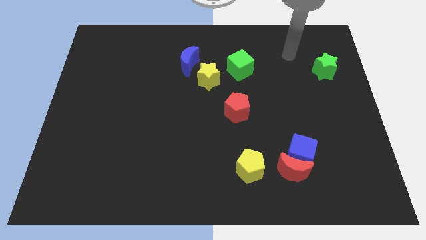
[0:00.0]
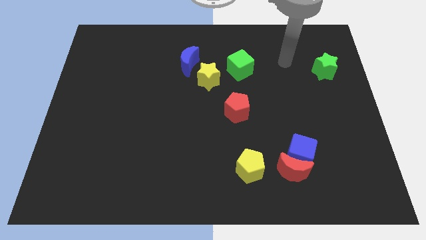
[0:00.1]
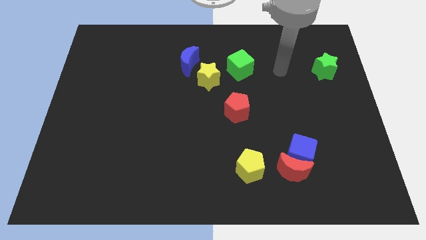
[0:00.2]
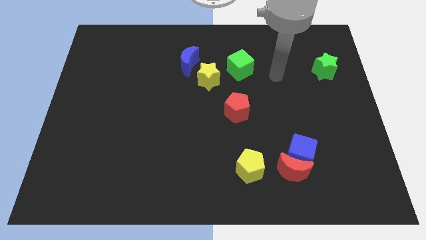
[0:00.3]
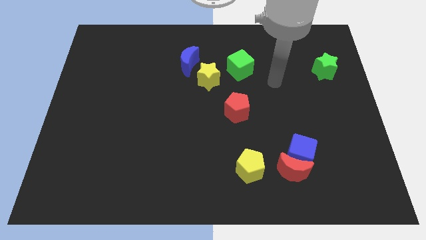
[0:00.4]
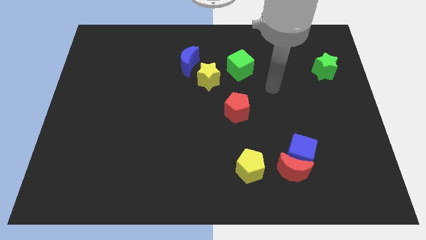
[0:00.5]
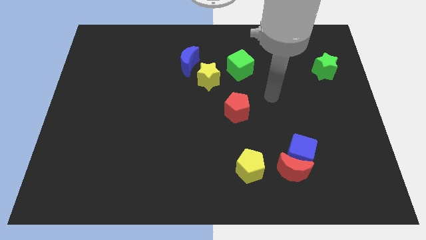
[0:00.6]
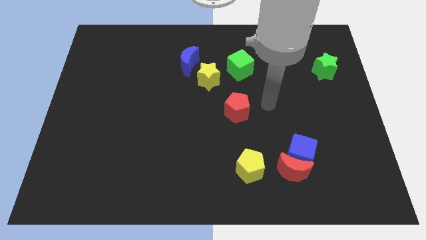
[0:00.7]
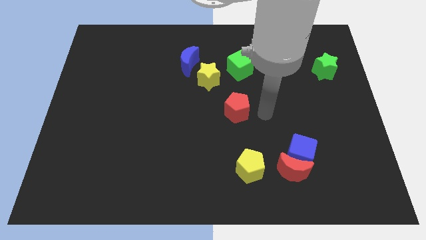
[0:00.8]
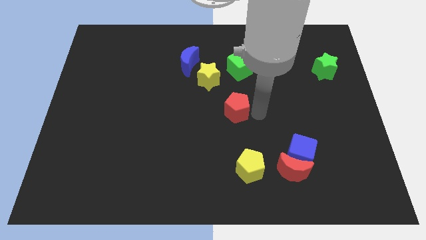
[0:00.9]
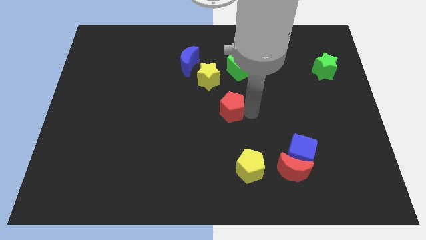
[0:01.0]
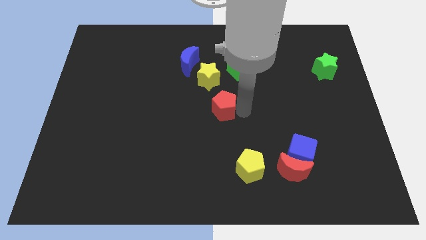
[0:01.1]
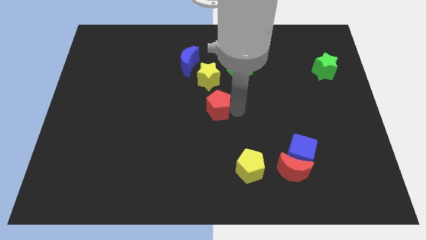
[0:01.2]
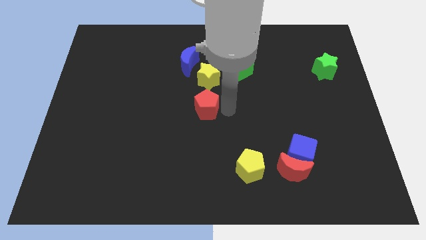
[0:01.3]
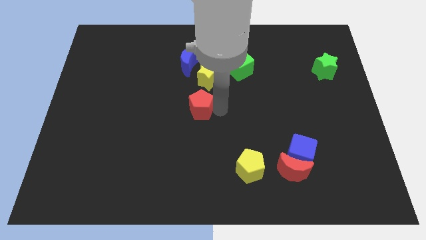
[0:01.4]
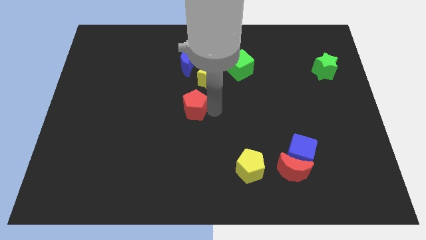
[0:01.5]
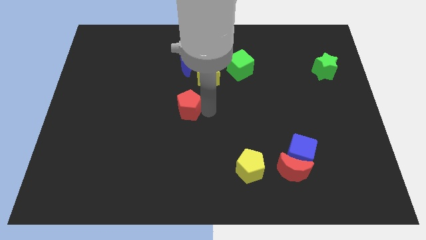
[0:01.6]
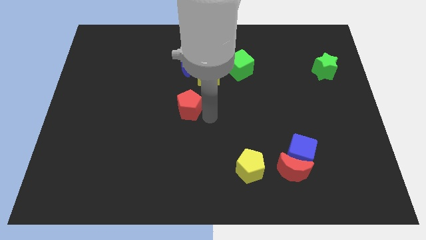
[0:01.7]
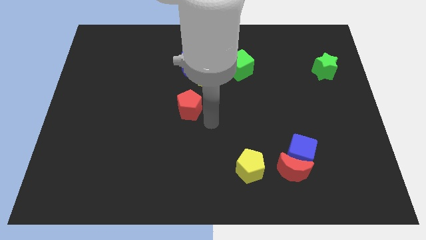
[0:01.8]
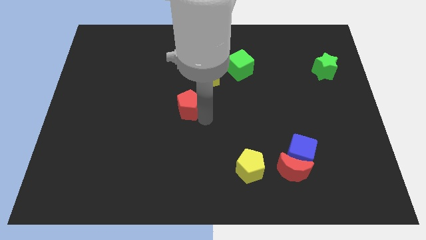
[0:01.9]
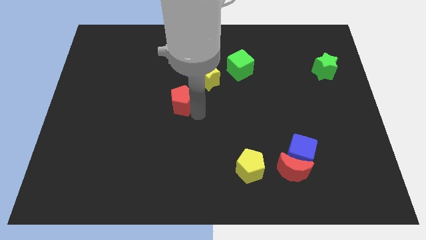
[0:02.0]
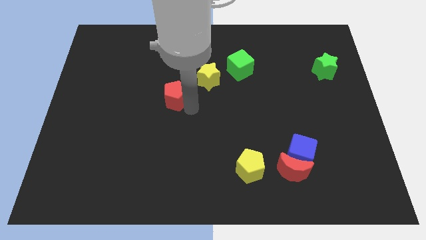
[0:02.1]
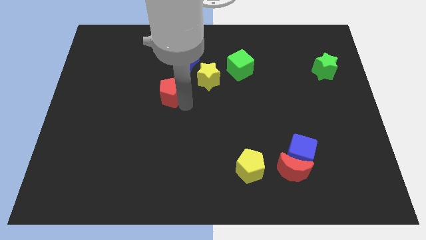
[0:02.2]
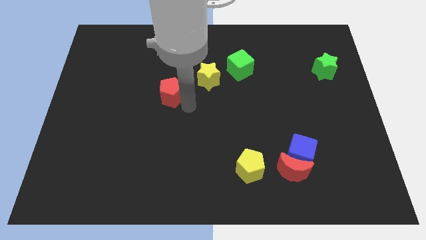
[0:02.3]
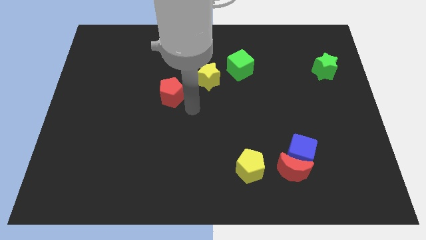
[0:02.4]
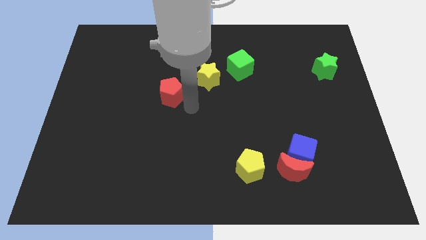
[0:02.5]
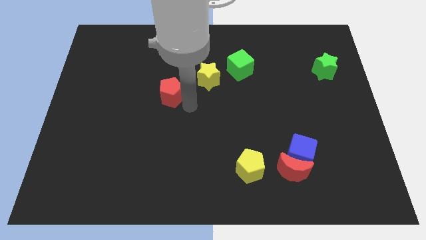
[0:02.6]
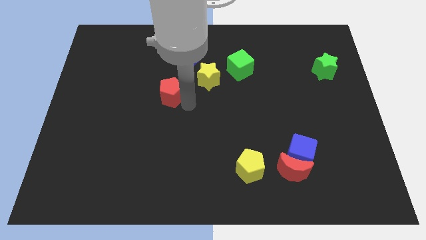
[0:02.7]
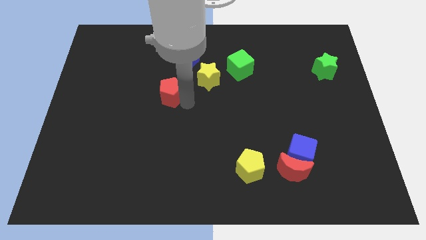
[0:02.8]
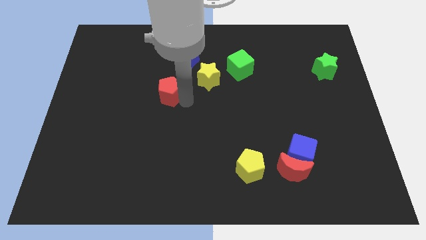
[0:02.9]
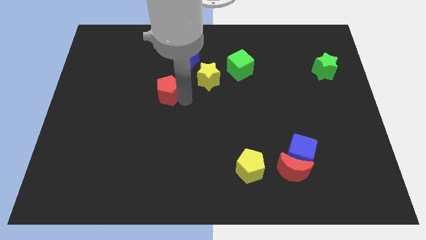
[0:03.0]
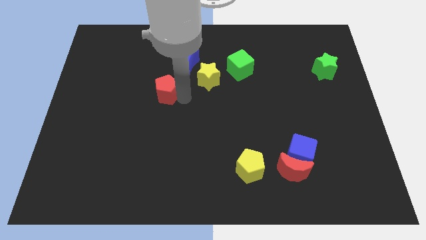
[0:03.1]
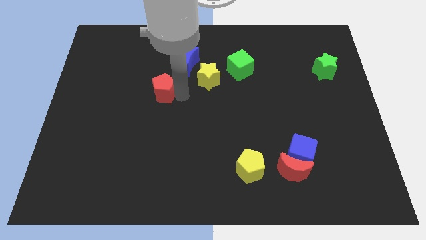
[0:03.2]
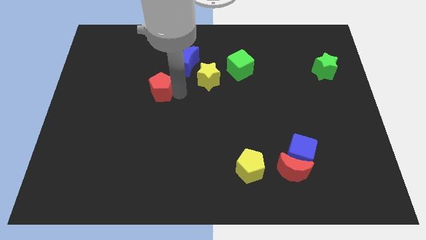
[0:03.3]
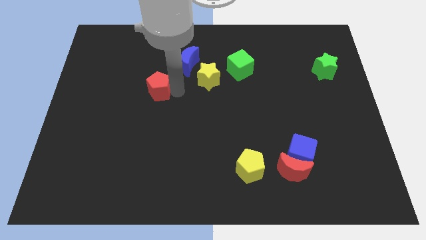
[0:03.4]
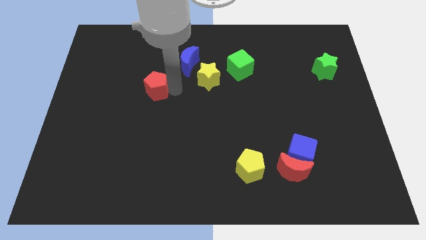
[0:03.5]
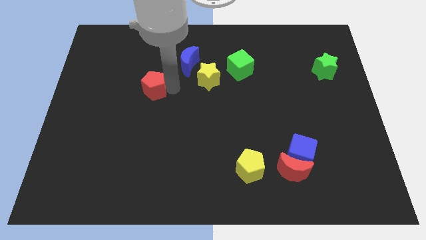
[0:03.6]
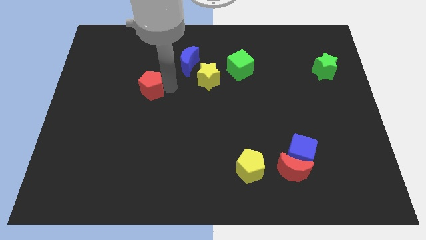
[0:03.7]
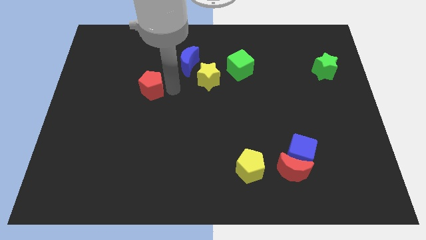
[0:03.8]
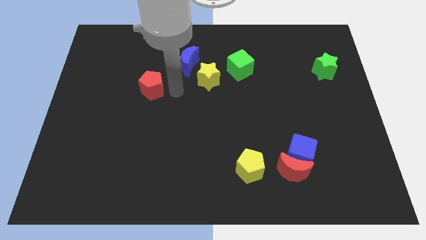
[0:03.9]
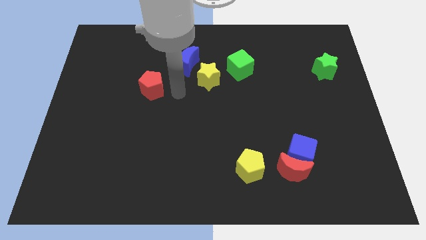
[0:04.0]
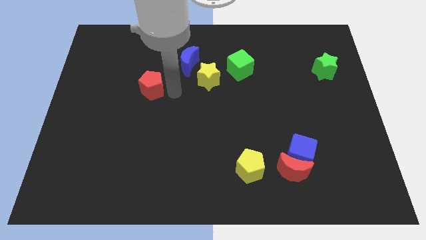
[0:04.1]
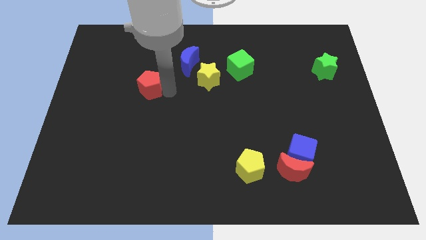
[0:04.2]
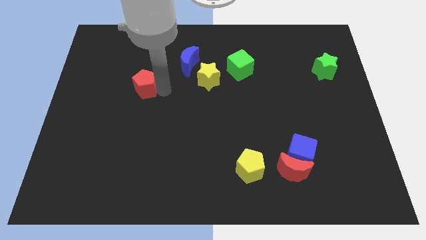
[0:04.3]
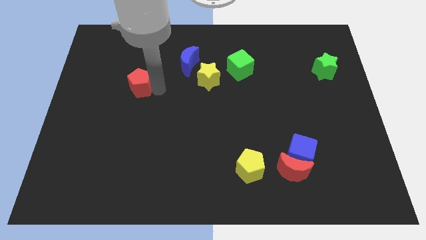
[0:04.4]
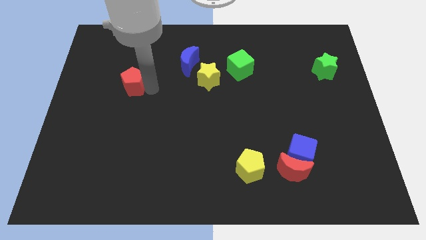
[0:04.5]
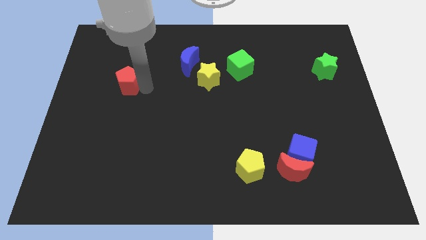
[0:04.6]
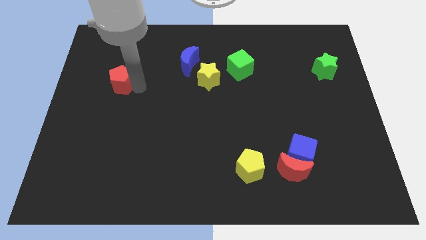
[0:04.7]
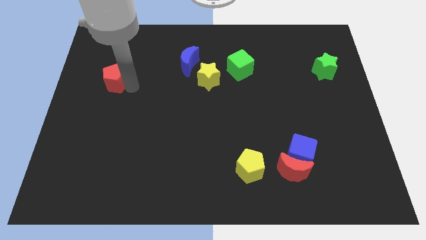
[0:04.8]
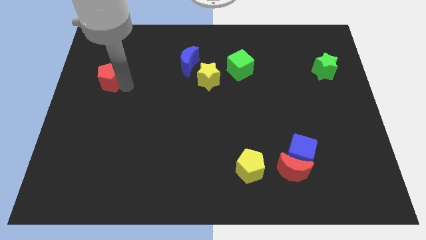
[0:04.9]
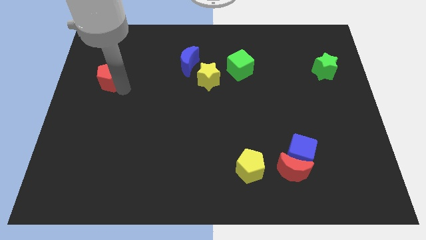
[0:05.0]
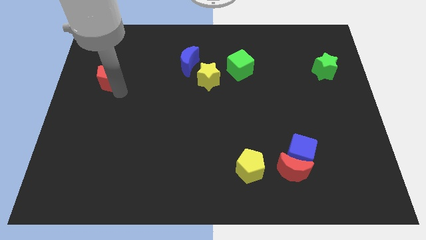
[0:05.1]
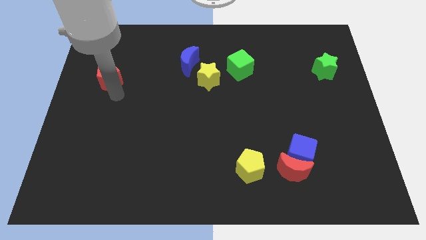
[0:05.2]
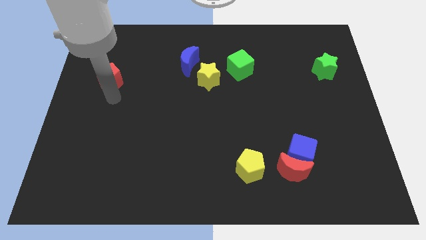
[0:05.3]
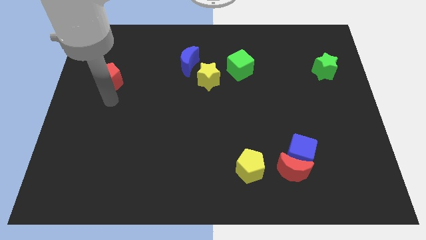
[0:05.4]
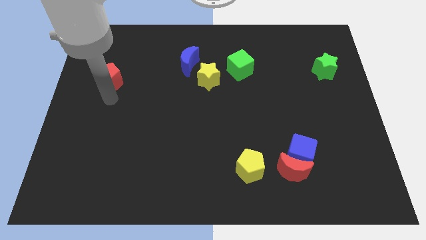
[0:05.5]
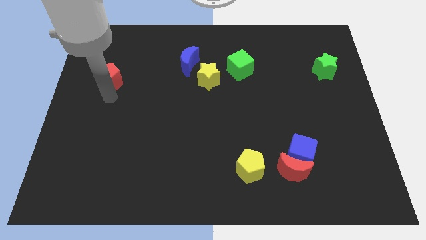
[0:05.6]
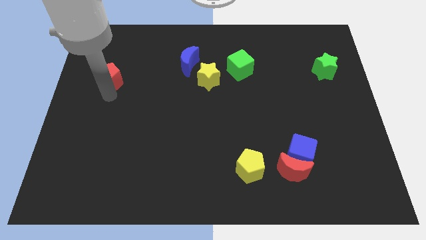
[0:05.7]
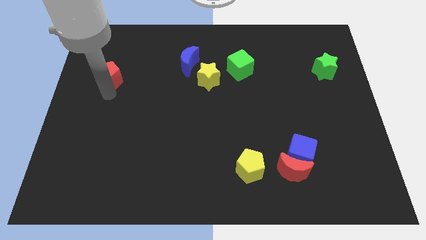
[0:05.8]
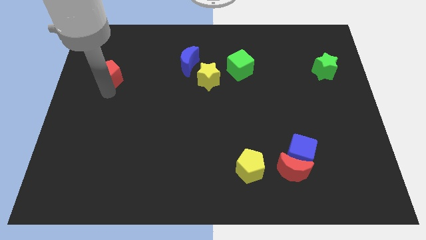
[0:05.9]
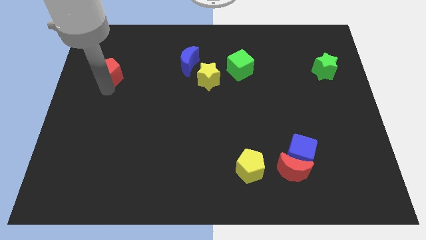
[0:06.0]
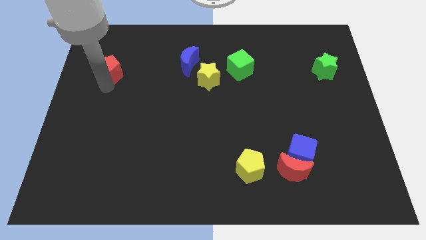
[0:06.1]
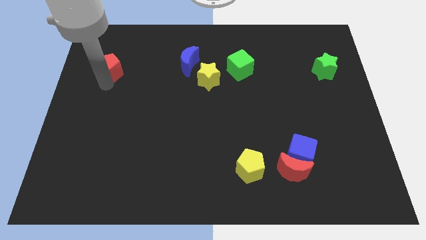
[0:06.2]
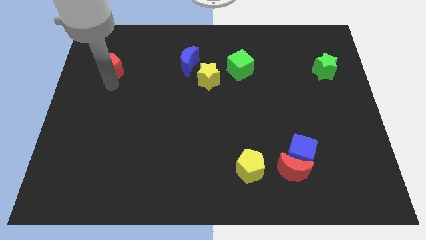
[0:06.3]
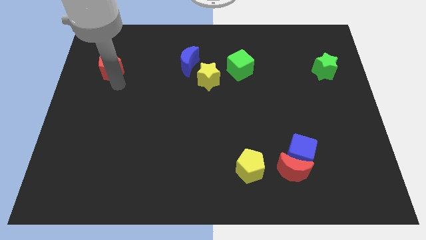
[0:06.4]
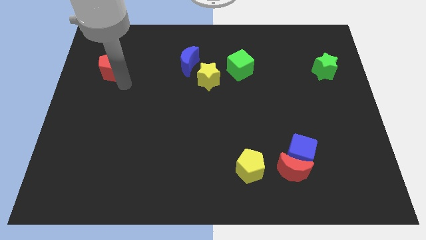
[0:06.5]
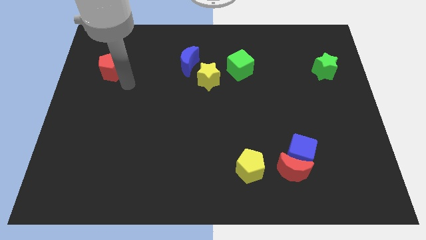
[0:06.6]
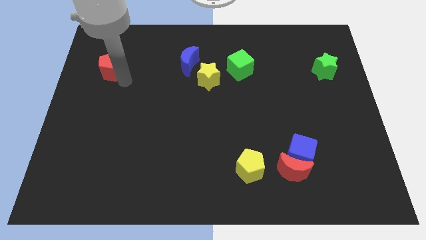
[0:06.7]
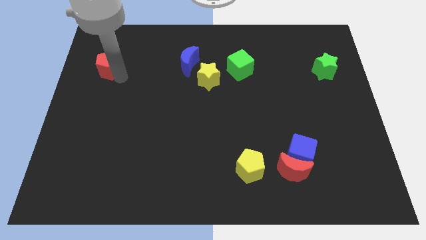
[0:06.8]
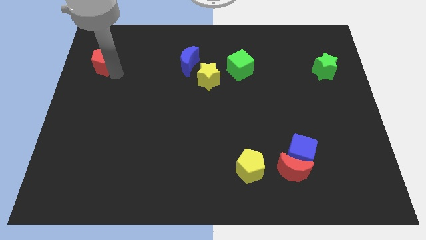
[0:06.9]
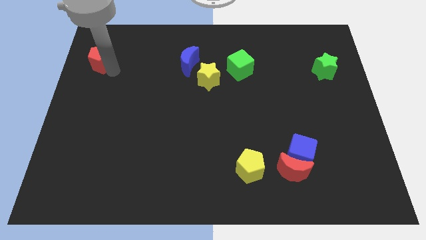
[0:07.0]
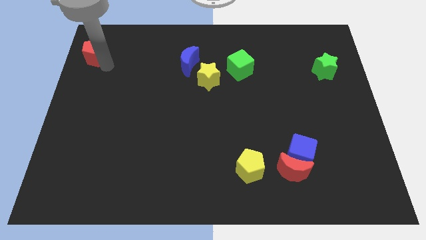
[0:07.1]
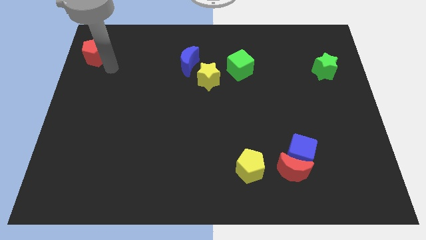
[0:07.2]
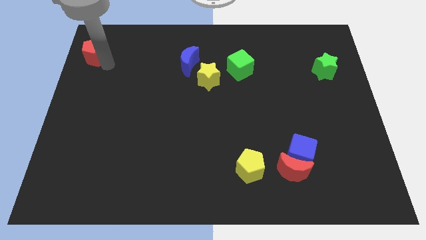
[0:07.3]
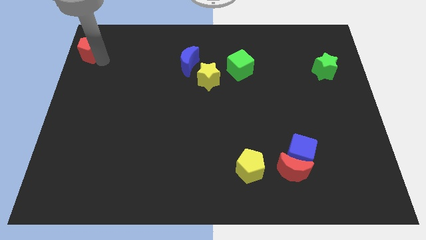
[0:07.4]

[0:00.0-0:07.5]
slide the red pentagon to the top left corner

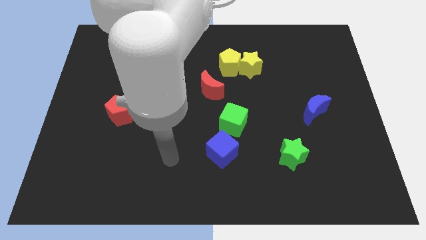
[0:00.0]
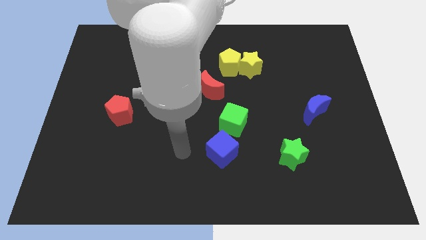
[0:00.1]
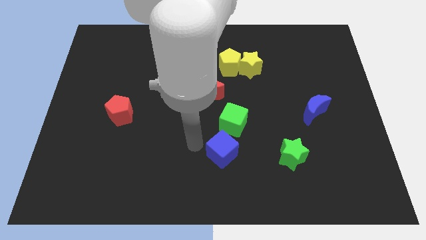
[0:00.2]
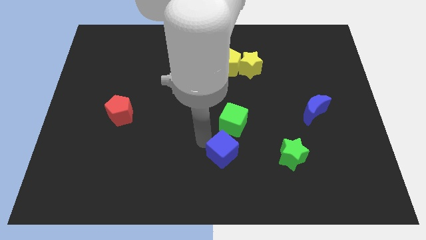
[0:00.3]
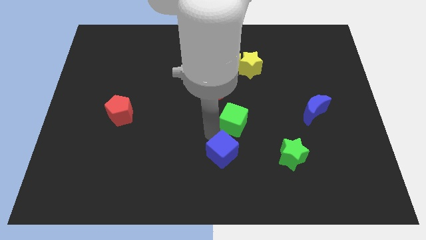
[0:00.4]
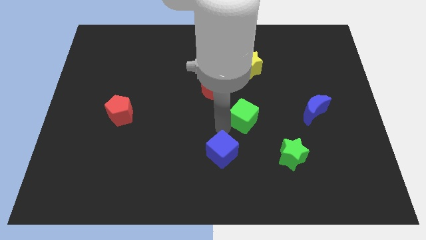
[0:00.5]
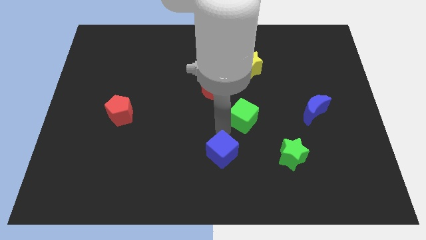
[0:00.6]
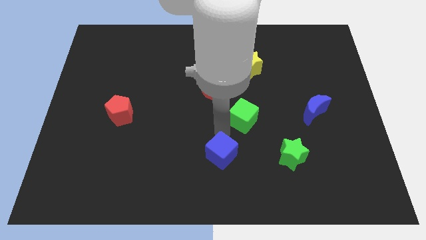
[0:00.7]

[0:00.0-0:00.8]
push the blue cube to the bottom
